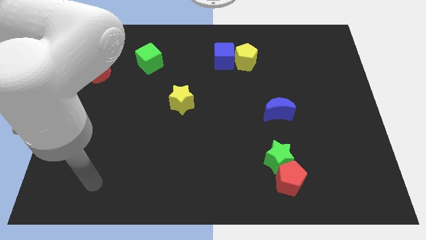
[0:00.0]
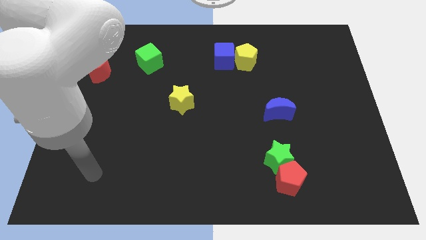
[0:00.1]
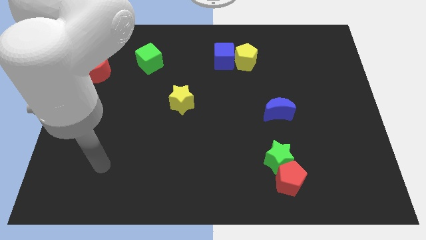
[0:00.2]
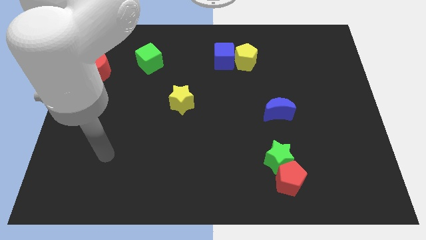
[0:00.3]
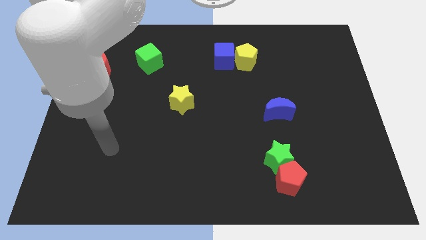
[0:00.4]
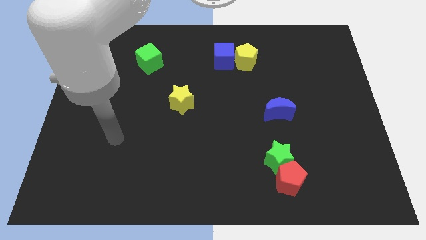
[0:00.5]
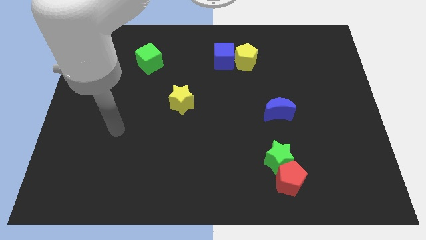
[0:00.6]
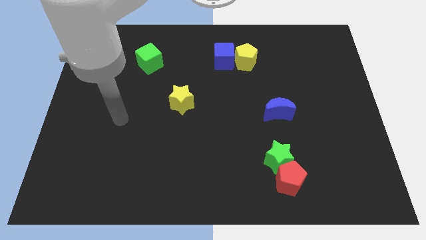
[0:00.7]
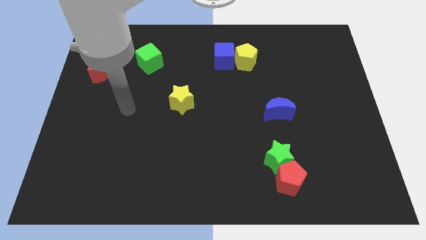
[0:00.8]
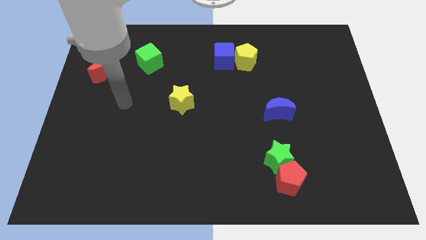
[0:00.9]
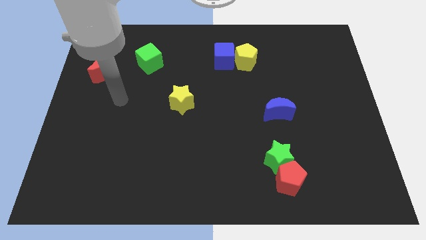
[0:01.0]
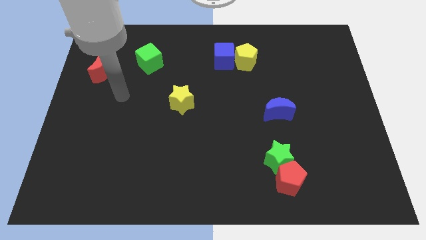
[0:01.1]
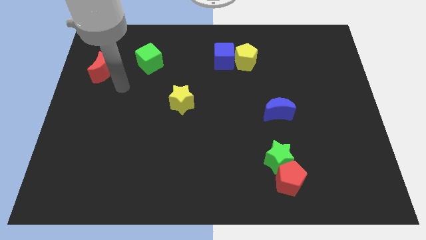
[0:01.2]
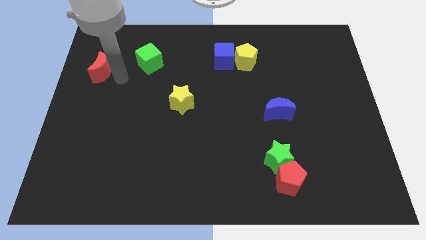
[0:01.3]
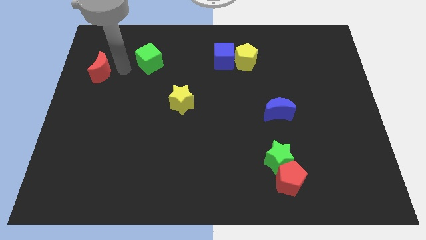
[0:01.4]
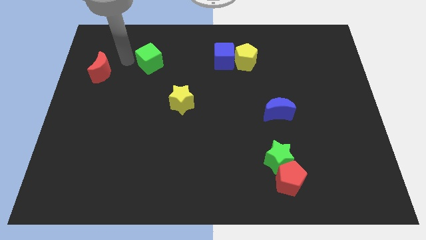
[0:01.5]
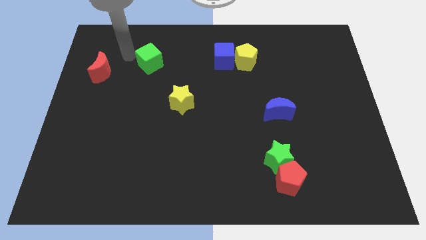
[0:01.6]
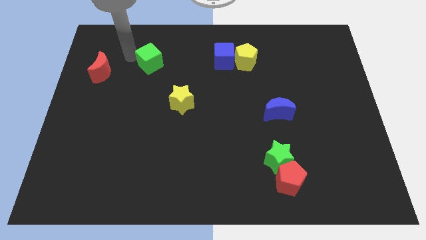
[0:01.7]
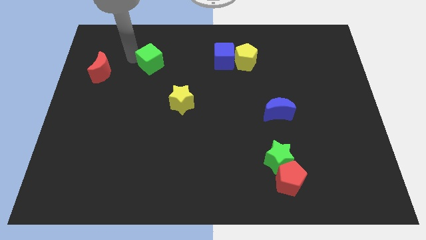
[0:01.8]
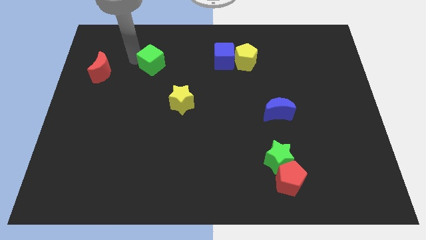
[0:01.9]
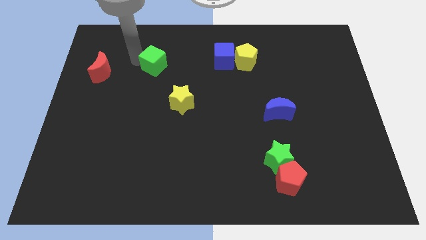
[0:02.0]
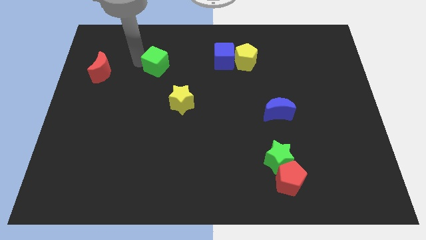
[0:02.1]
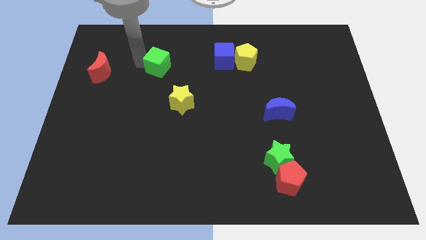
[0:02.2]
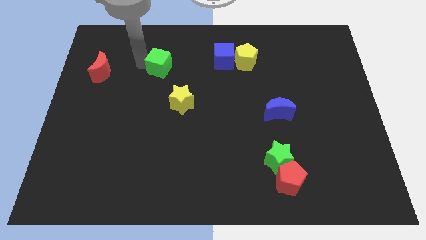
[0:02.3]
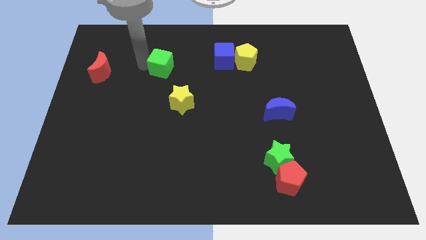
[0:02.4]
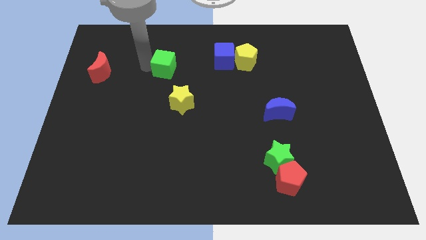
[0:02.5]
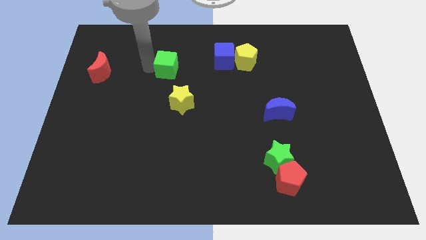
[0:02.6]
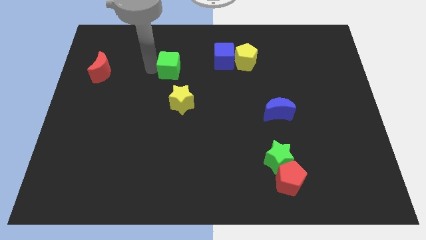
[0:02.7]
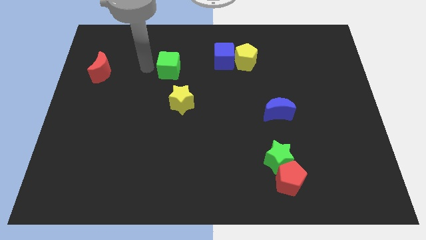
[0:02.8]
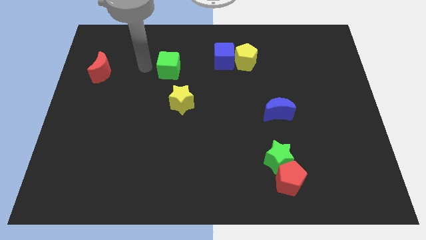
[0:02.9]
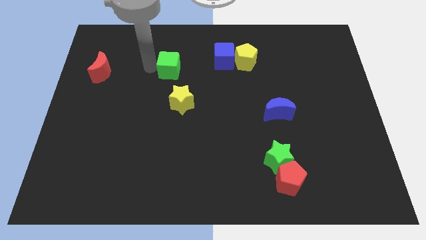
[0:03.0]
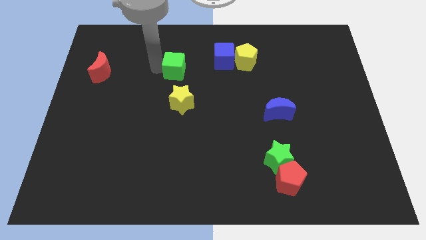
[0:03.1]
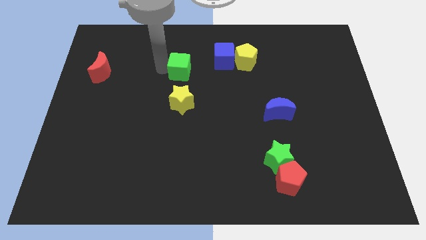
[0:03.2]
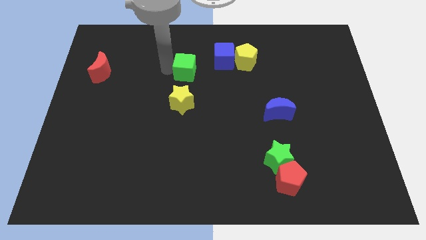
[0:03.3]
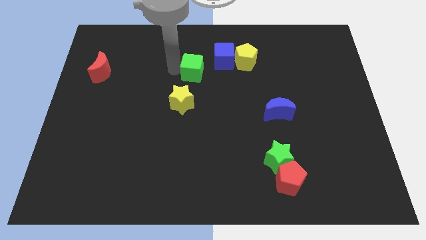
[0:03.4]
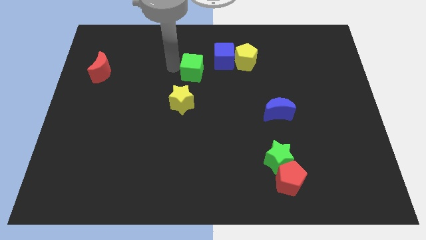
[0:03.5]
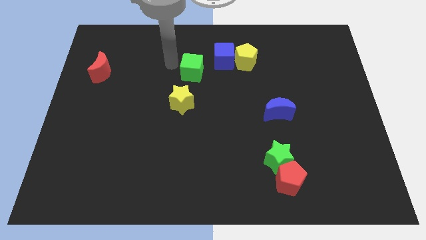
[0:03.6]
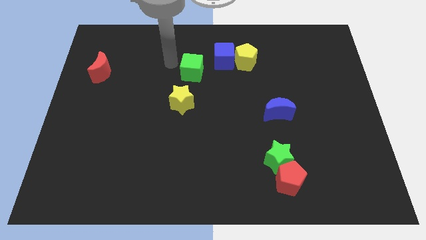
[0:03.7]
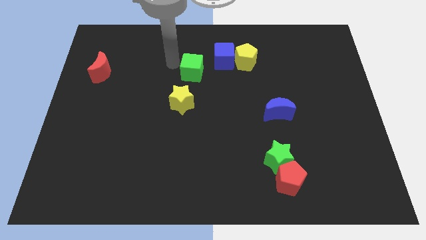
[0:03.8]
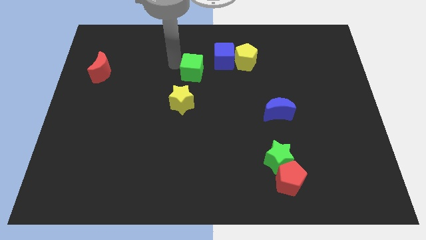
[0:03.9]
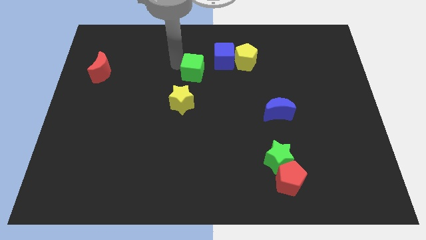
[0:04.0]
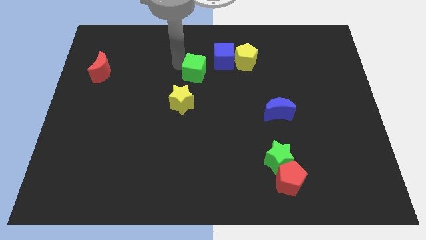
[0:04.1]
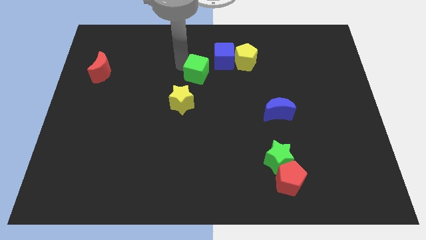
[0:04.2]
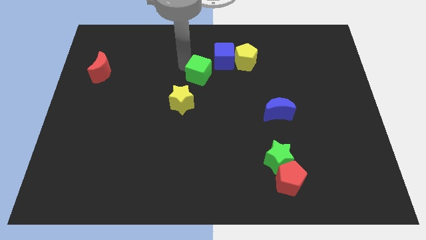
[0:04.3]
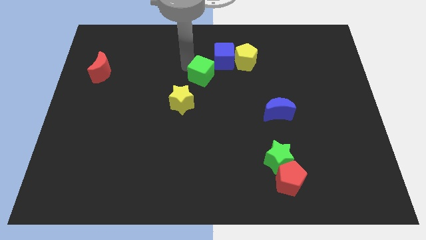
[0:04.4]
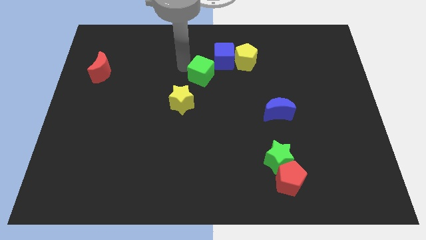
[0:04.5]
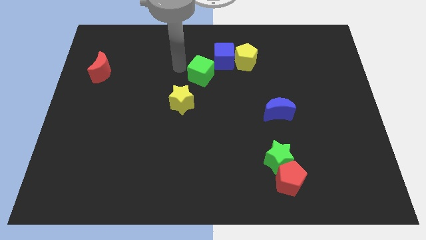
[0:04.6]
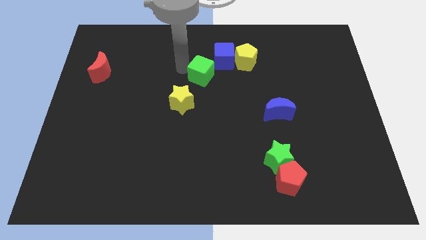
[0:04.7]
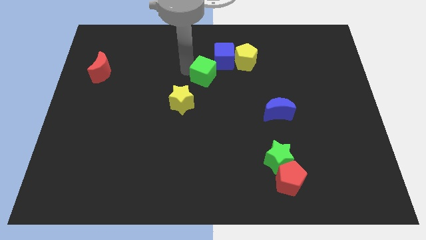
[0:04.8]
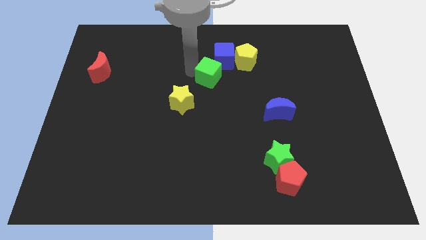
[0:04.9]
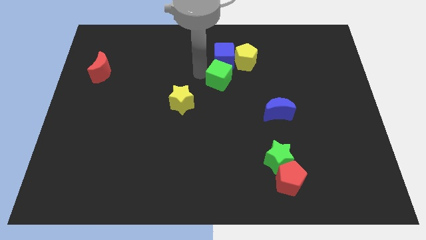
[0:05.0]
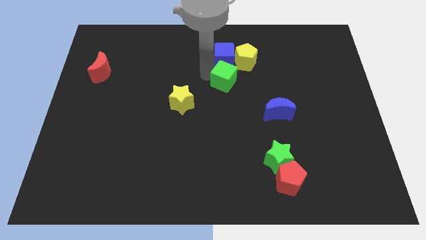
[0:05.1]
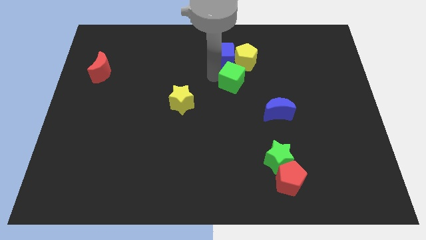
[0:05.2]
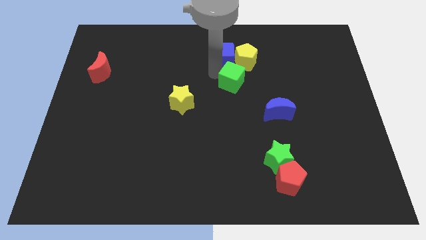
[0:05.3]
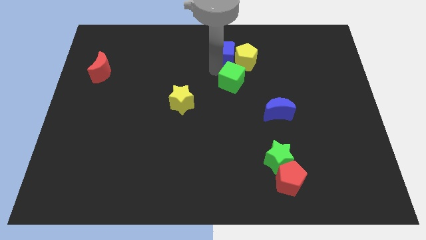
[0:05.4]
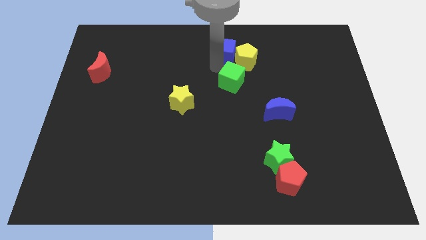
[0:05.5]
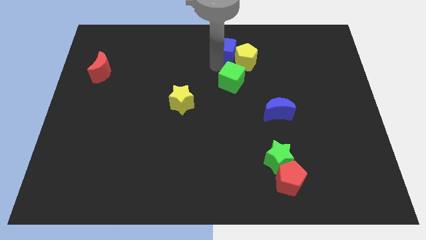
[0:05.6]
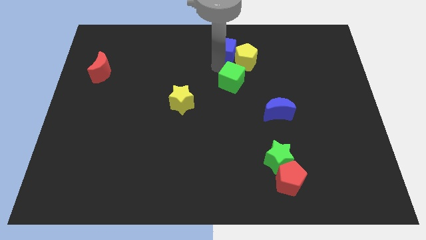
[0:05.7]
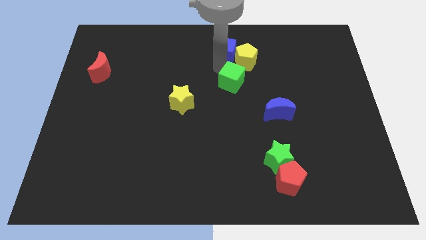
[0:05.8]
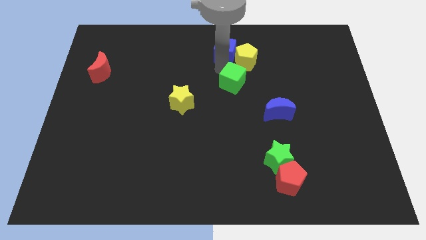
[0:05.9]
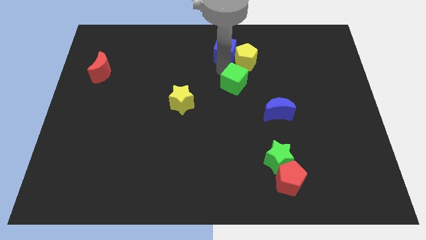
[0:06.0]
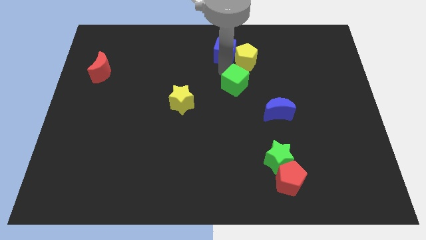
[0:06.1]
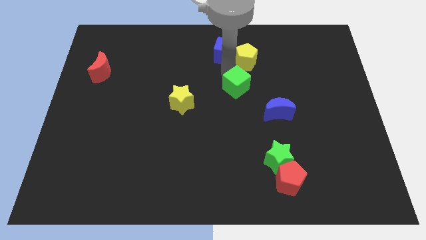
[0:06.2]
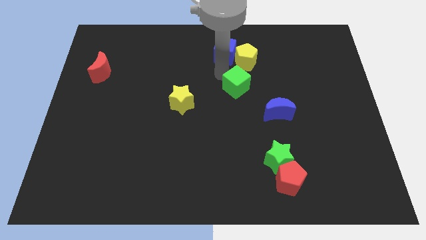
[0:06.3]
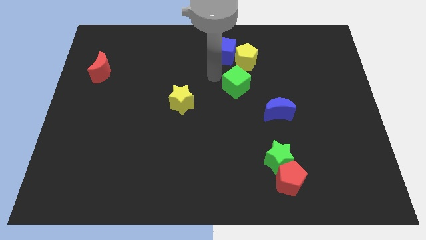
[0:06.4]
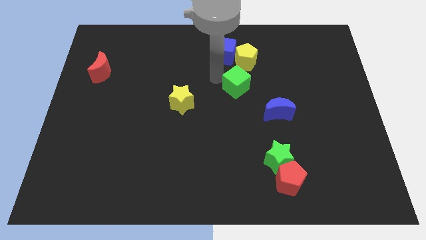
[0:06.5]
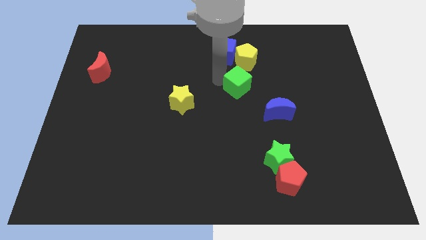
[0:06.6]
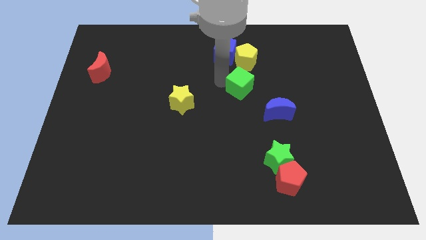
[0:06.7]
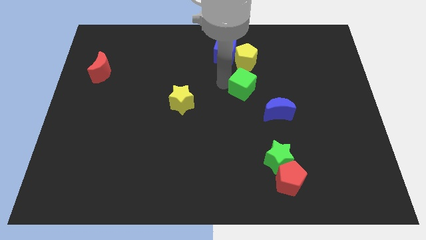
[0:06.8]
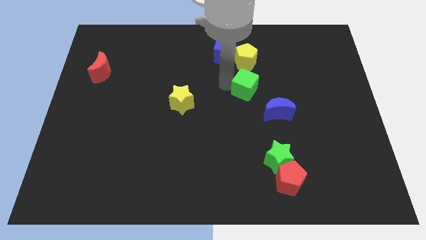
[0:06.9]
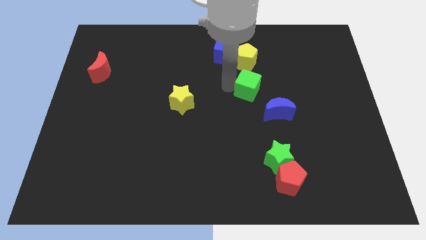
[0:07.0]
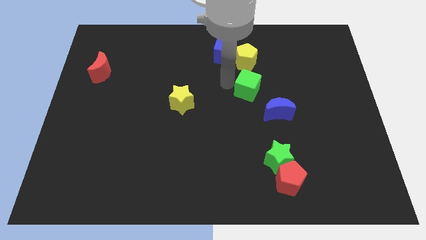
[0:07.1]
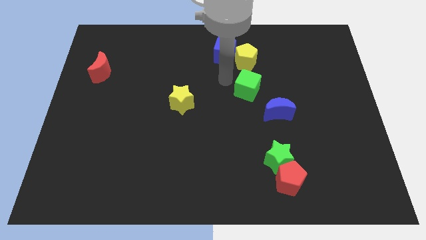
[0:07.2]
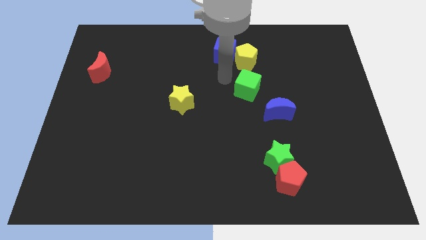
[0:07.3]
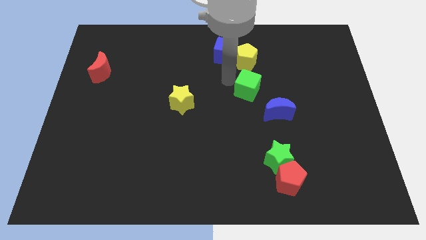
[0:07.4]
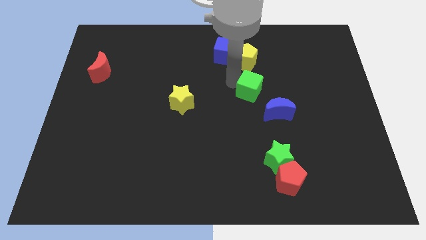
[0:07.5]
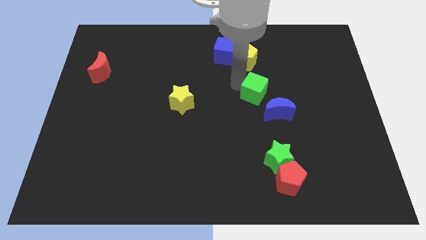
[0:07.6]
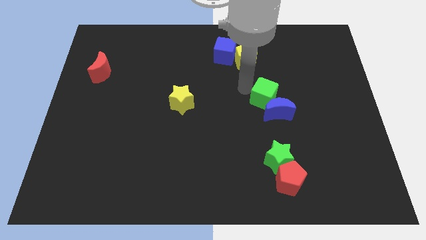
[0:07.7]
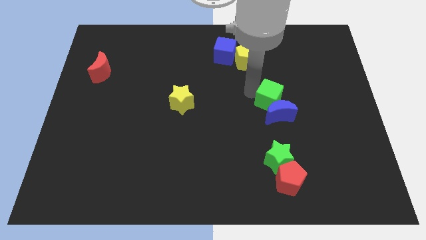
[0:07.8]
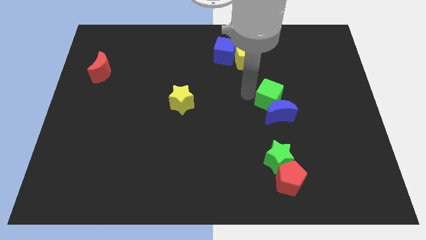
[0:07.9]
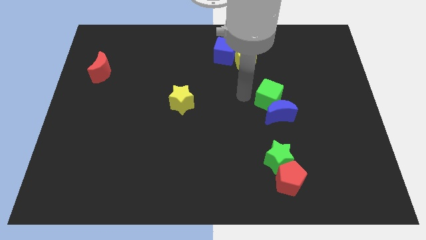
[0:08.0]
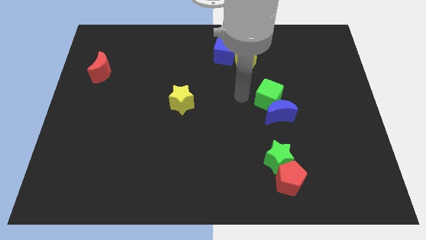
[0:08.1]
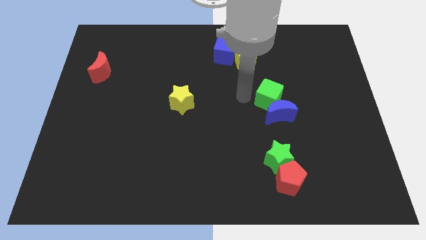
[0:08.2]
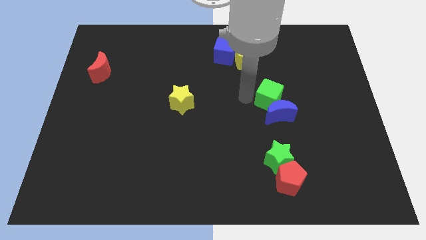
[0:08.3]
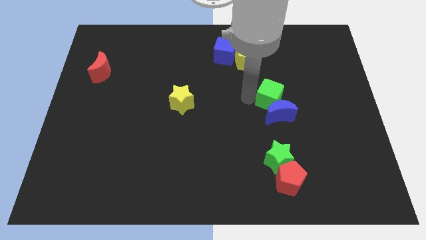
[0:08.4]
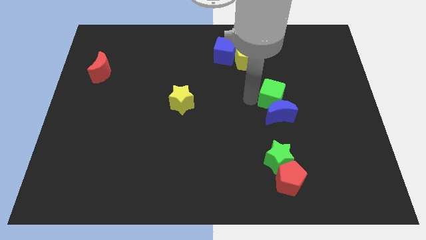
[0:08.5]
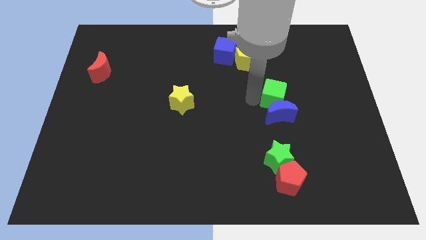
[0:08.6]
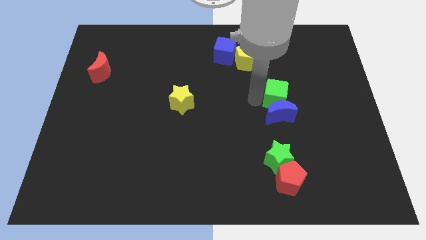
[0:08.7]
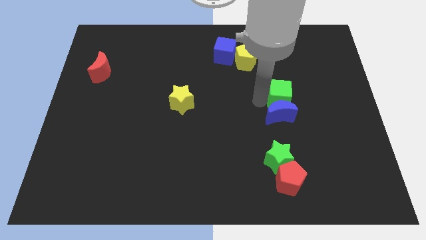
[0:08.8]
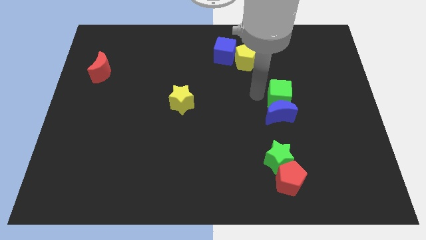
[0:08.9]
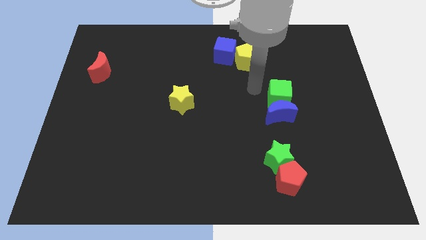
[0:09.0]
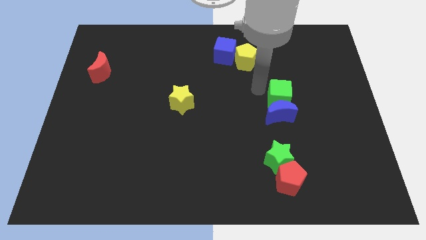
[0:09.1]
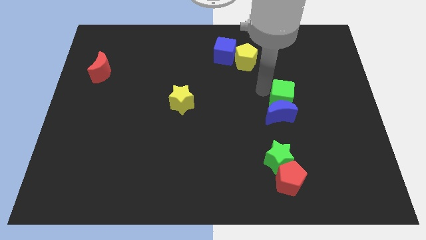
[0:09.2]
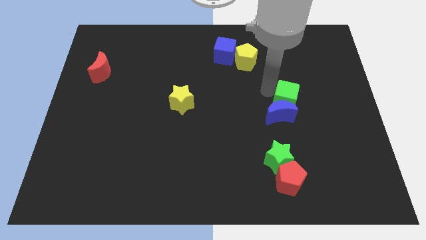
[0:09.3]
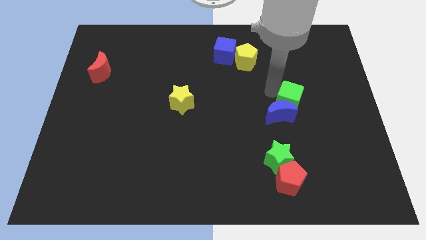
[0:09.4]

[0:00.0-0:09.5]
push the green cube right of the blue moon
